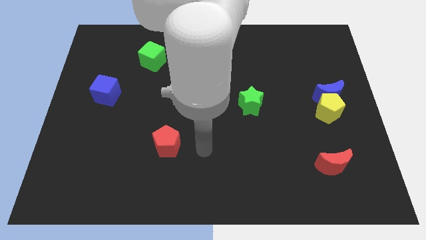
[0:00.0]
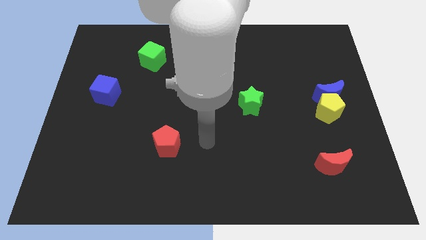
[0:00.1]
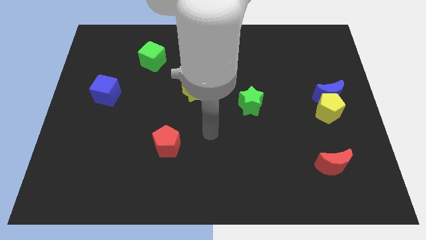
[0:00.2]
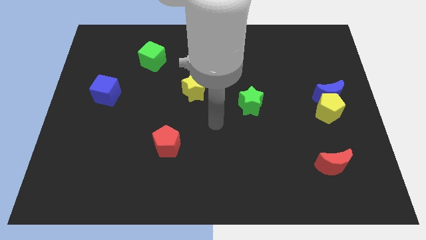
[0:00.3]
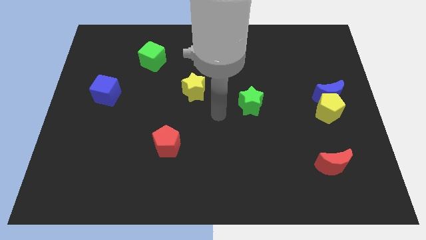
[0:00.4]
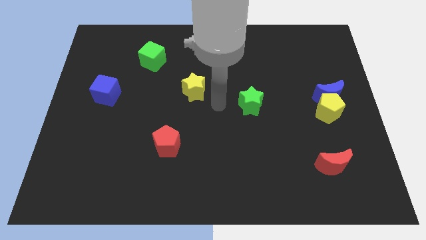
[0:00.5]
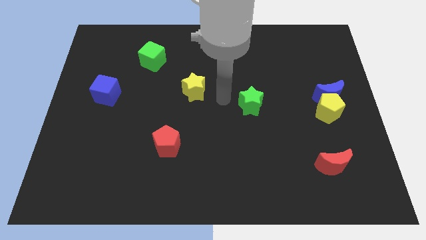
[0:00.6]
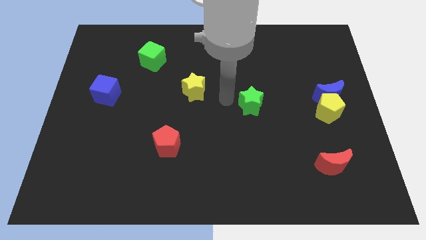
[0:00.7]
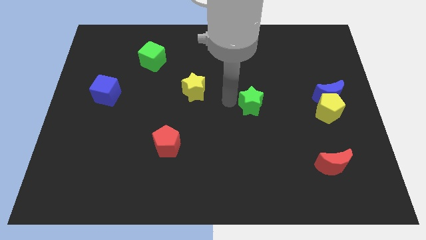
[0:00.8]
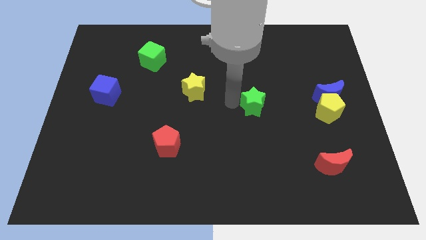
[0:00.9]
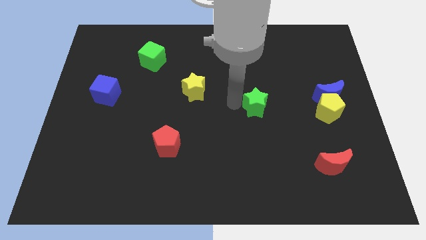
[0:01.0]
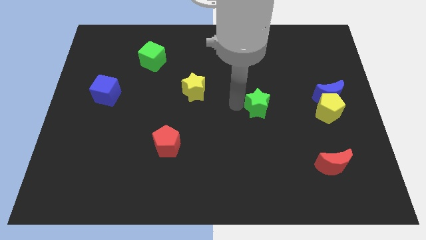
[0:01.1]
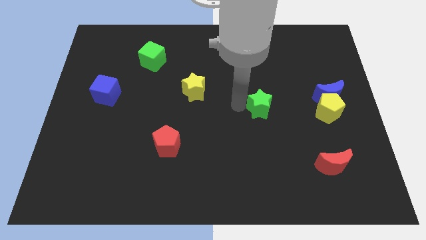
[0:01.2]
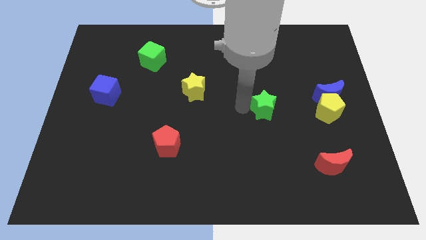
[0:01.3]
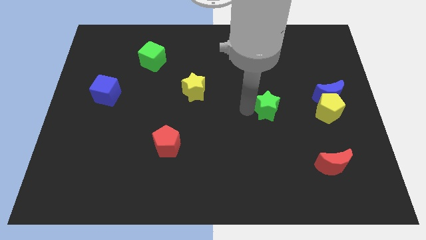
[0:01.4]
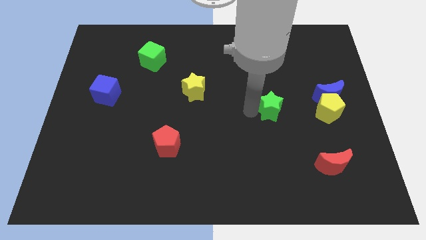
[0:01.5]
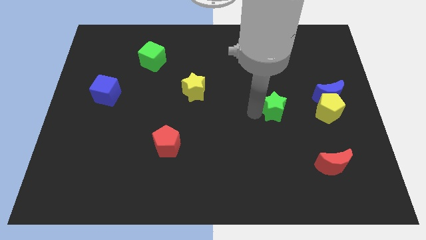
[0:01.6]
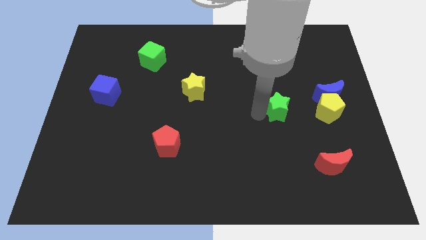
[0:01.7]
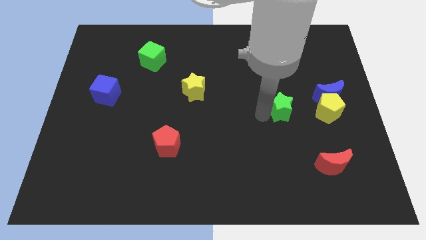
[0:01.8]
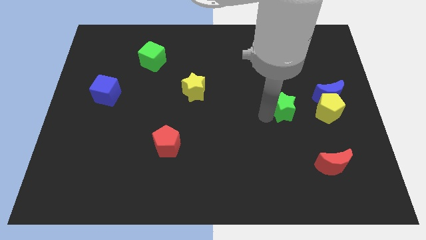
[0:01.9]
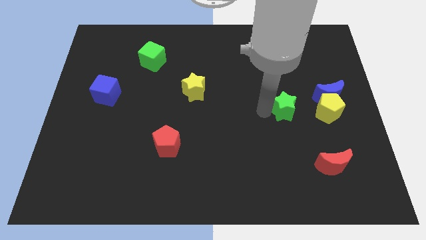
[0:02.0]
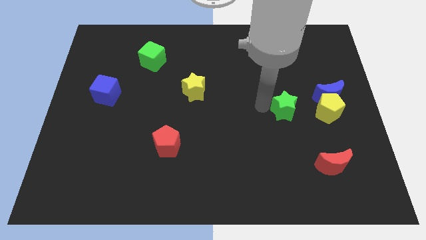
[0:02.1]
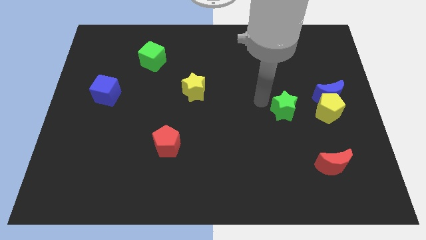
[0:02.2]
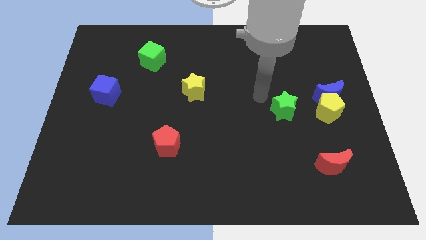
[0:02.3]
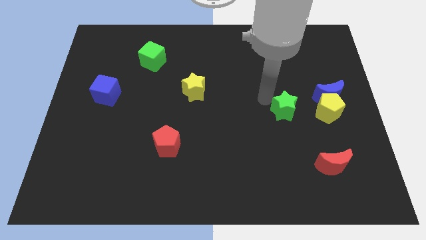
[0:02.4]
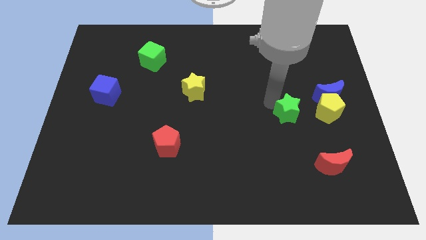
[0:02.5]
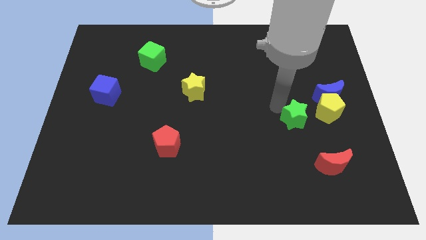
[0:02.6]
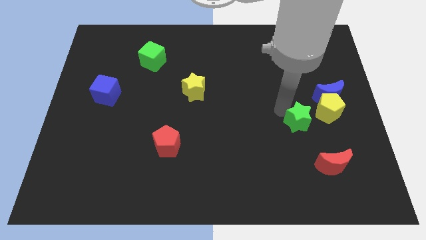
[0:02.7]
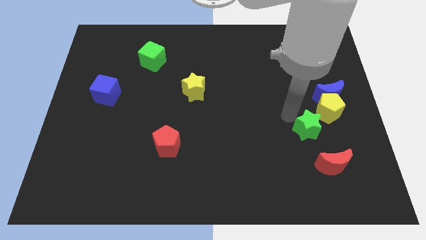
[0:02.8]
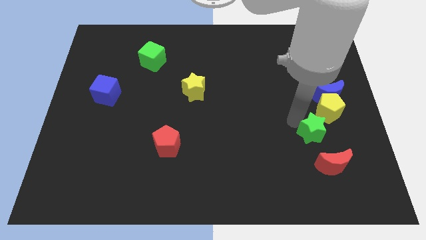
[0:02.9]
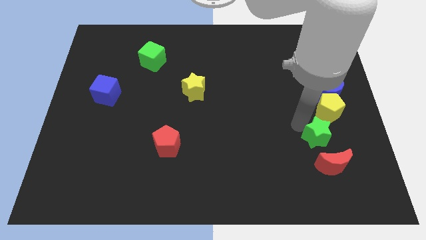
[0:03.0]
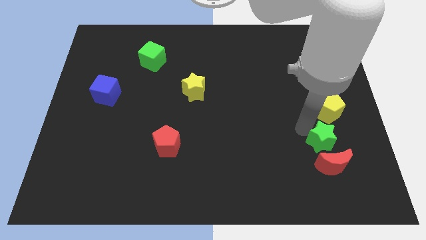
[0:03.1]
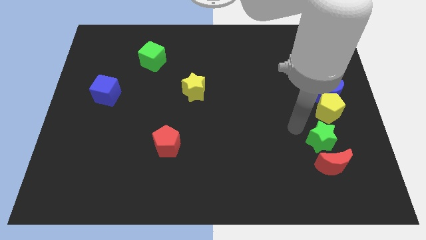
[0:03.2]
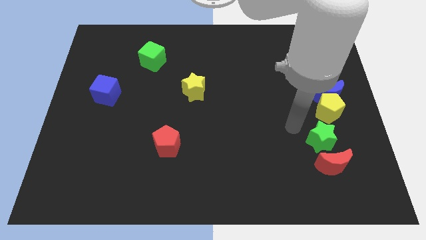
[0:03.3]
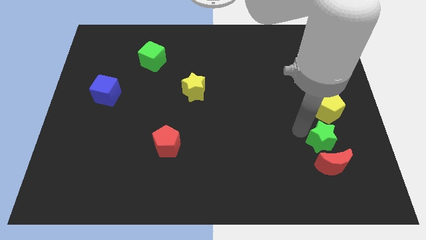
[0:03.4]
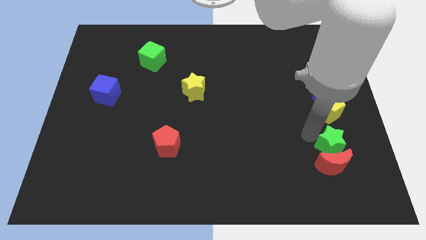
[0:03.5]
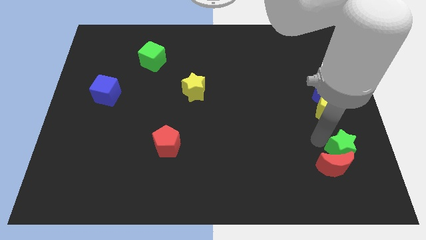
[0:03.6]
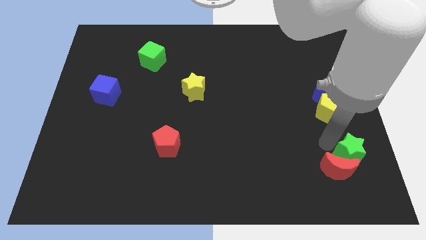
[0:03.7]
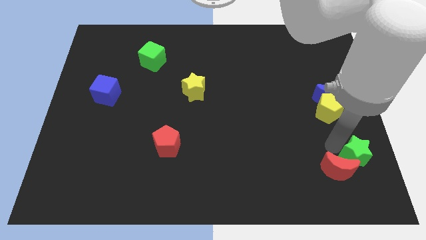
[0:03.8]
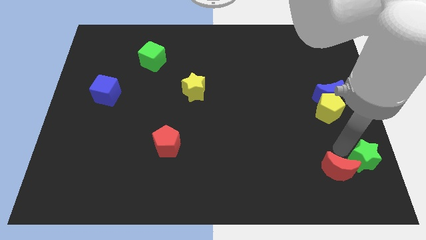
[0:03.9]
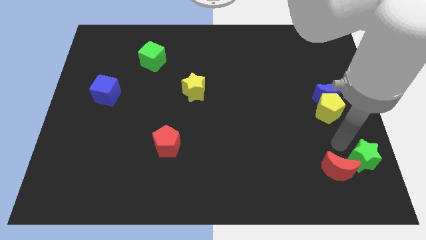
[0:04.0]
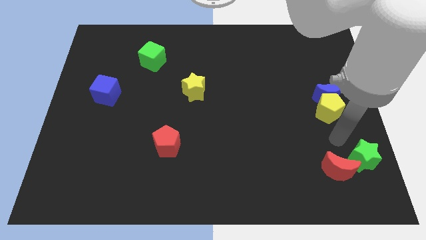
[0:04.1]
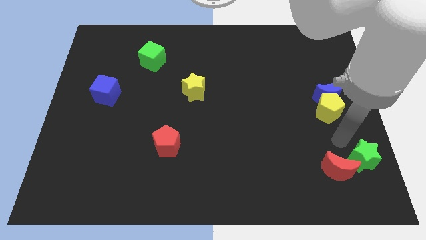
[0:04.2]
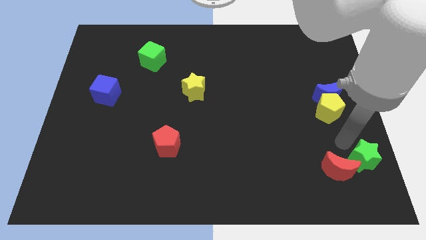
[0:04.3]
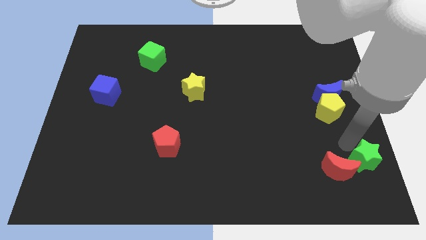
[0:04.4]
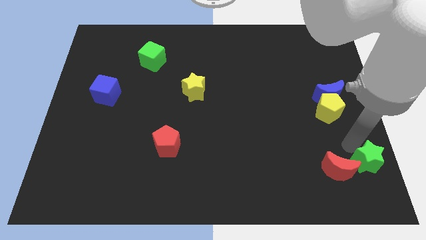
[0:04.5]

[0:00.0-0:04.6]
move the green star to the bottom right corner

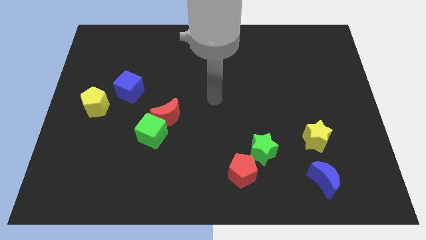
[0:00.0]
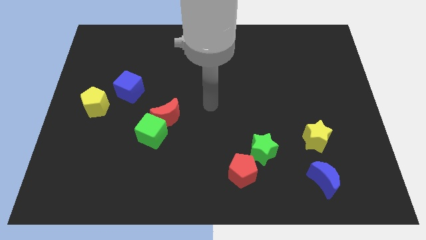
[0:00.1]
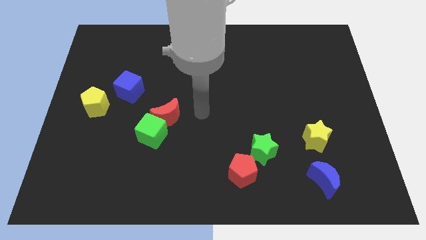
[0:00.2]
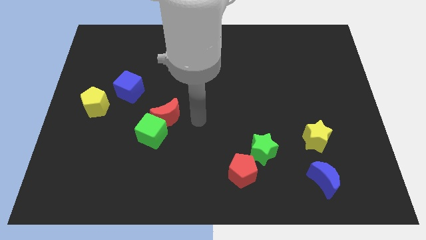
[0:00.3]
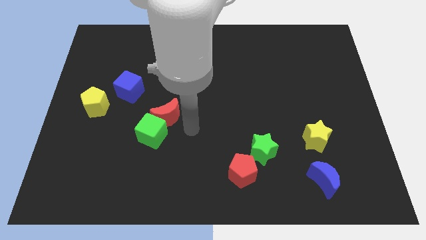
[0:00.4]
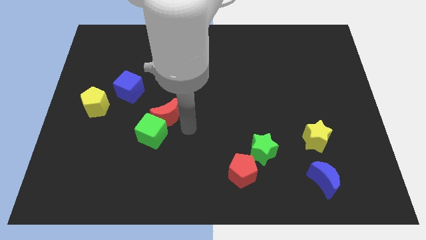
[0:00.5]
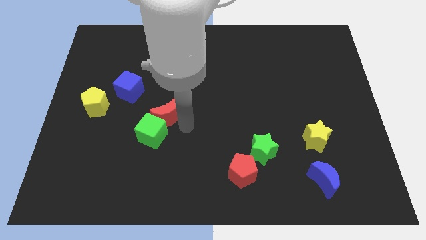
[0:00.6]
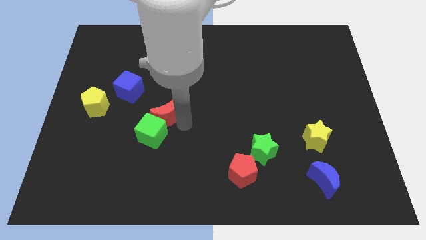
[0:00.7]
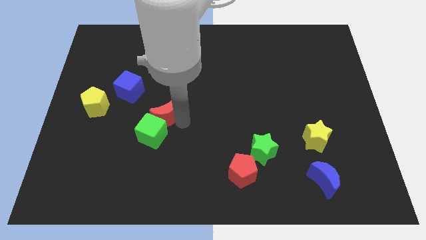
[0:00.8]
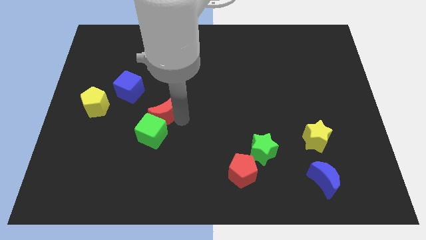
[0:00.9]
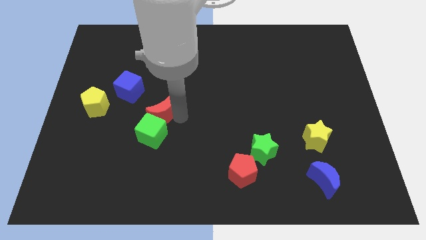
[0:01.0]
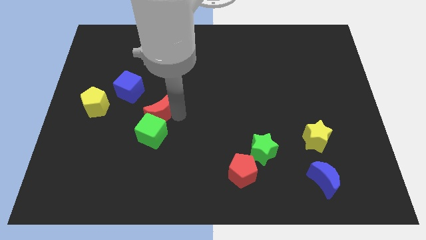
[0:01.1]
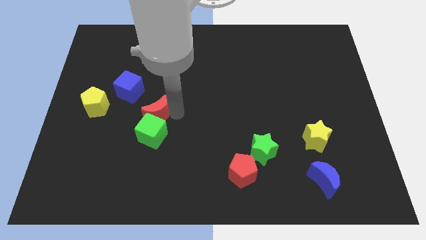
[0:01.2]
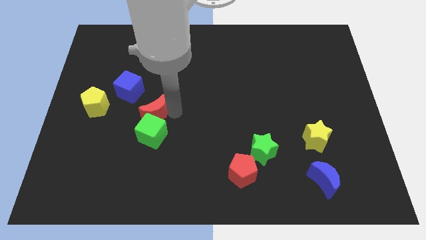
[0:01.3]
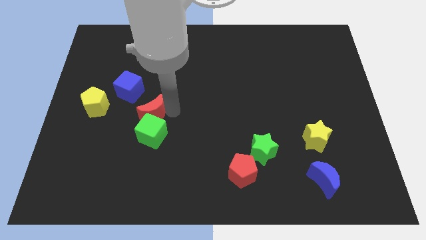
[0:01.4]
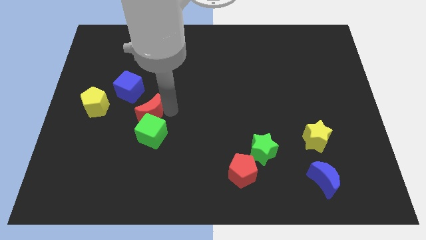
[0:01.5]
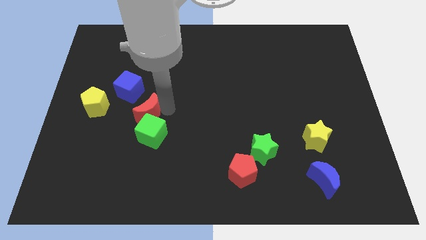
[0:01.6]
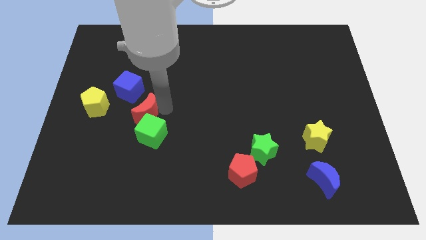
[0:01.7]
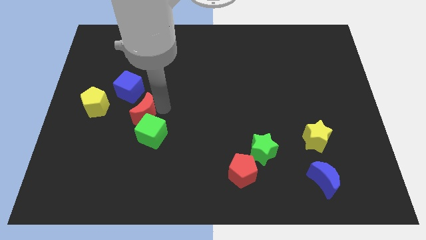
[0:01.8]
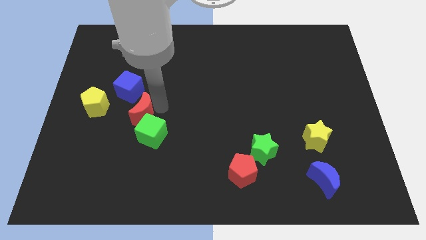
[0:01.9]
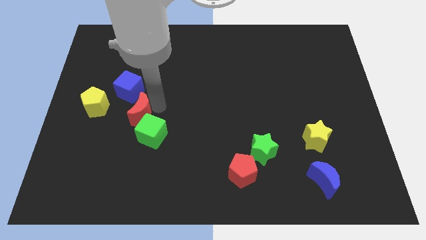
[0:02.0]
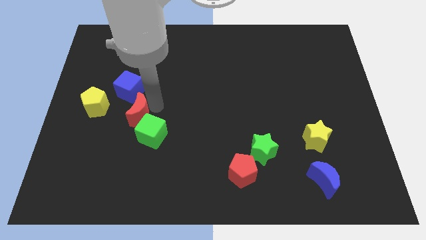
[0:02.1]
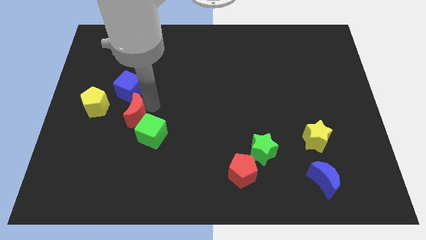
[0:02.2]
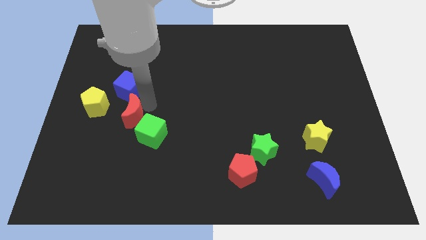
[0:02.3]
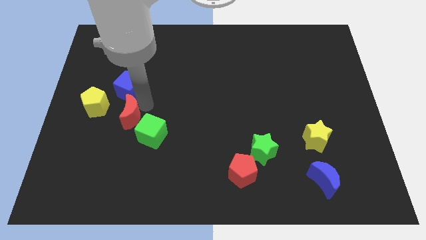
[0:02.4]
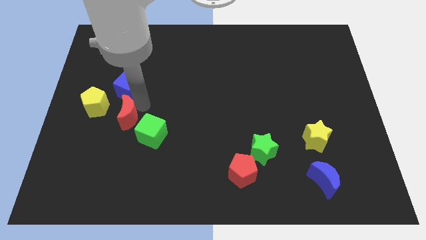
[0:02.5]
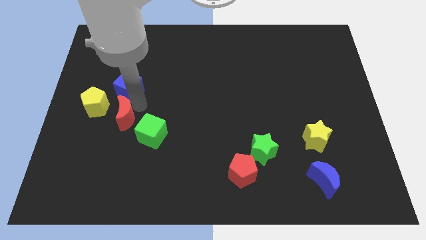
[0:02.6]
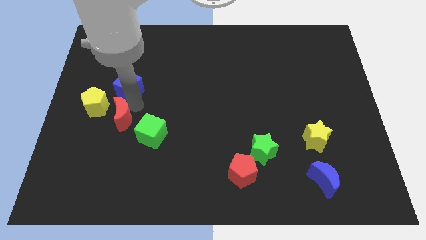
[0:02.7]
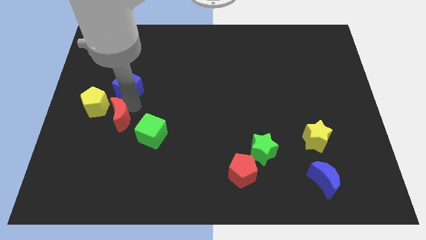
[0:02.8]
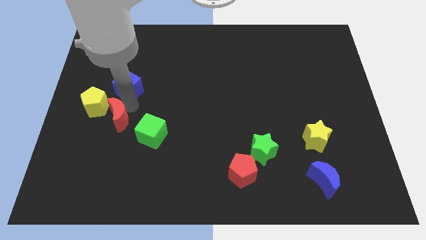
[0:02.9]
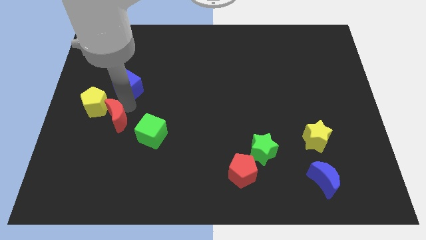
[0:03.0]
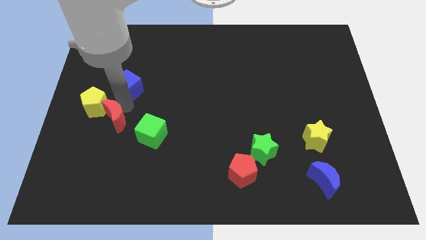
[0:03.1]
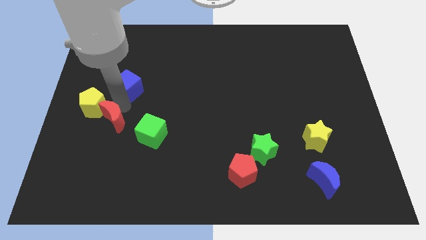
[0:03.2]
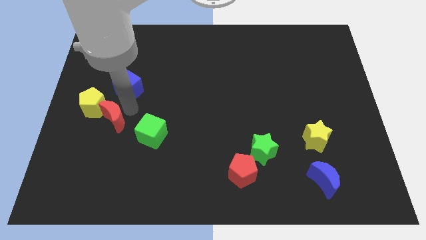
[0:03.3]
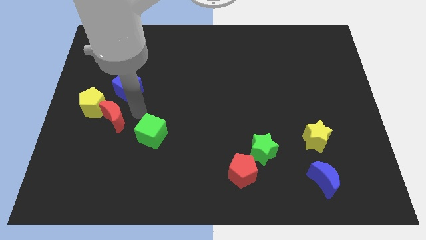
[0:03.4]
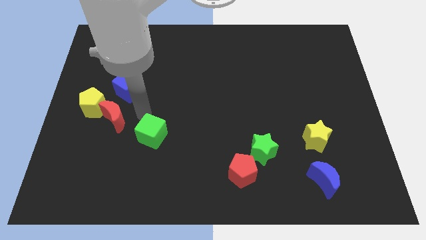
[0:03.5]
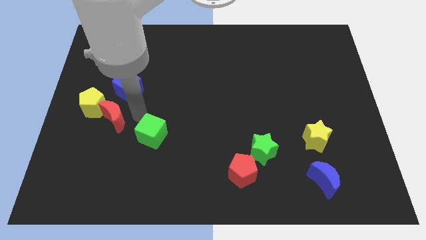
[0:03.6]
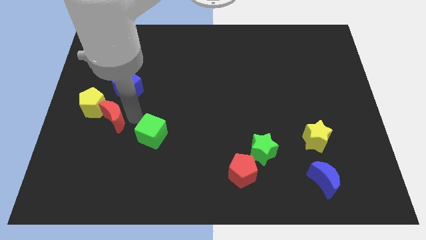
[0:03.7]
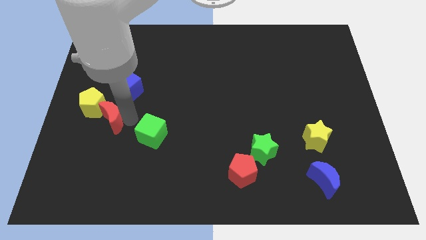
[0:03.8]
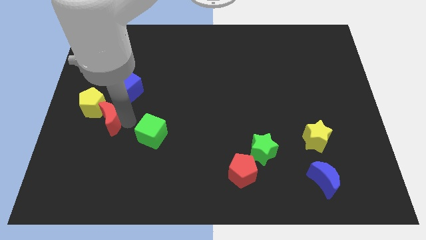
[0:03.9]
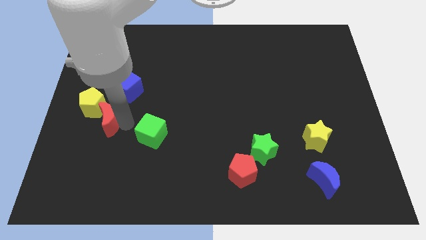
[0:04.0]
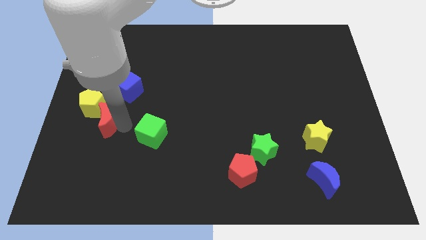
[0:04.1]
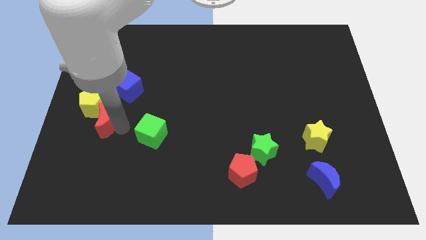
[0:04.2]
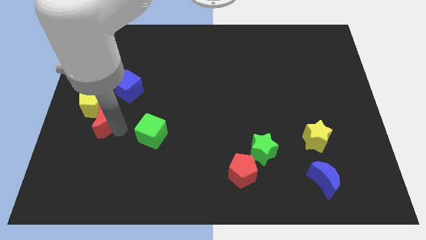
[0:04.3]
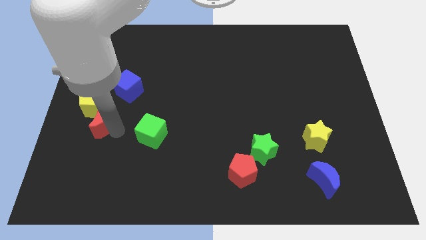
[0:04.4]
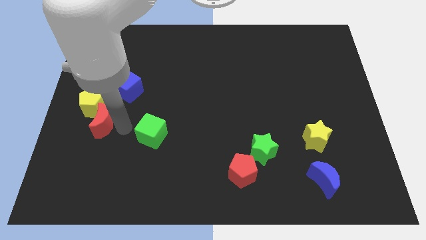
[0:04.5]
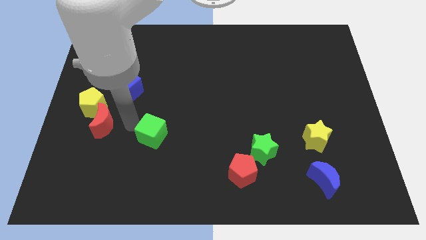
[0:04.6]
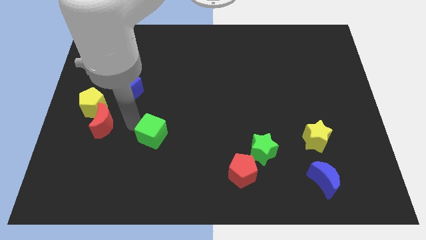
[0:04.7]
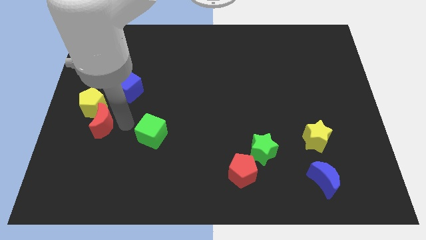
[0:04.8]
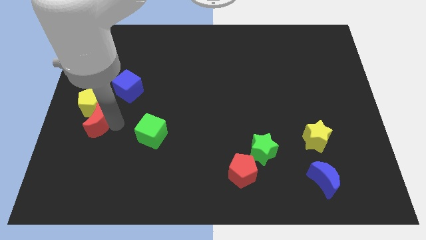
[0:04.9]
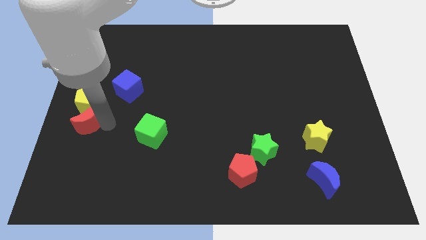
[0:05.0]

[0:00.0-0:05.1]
push the red moon to the center left
